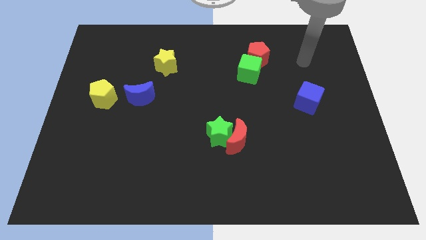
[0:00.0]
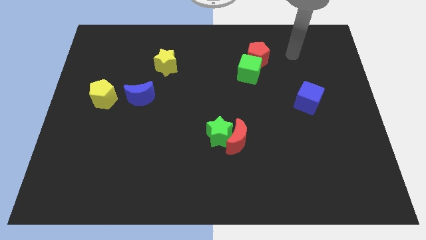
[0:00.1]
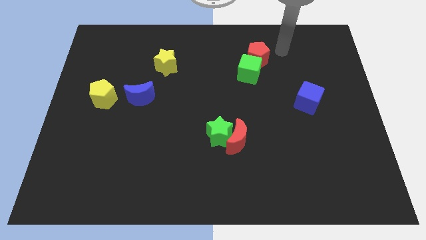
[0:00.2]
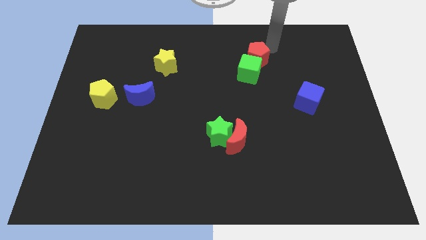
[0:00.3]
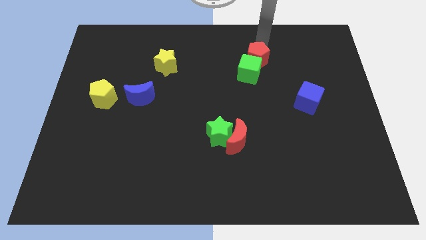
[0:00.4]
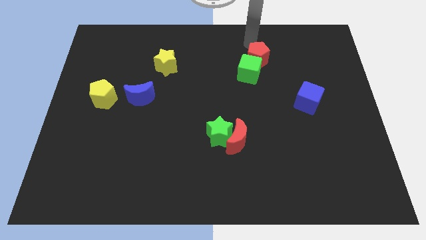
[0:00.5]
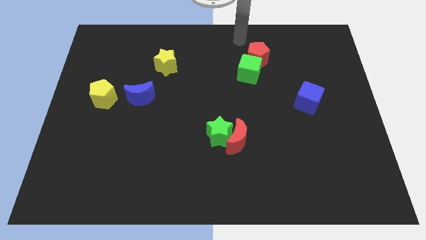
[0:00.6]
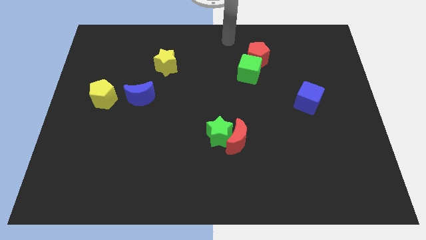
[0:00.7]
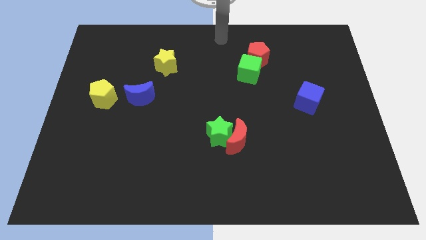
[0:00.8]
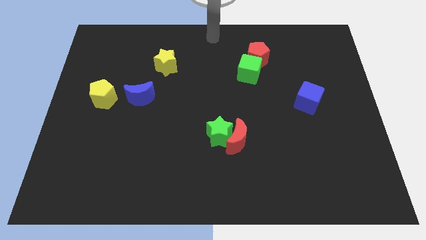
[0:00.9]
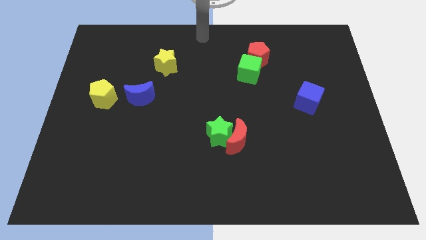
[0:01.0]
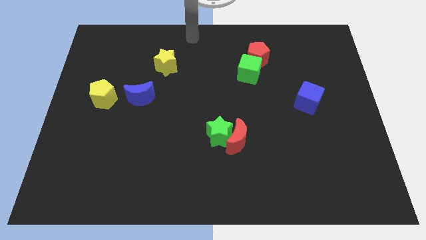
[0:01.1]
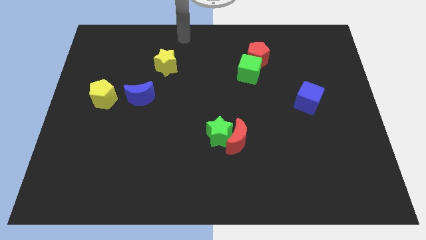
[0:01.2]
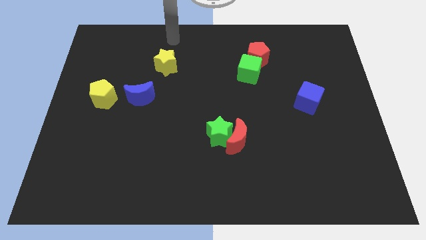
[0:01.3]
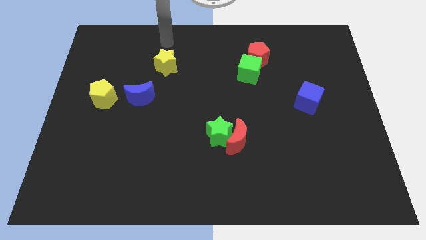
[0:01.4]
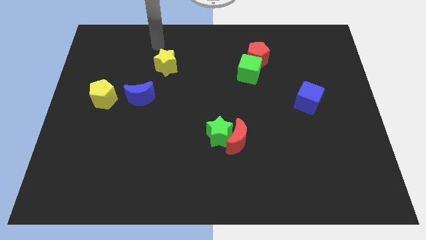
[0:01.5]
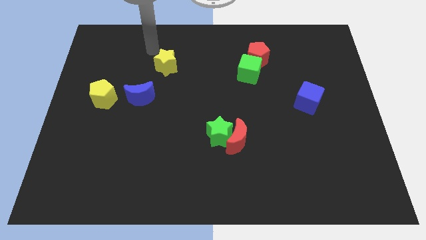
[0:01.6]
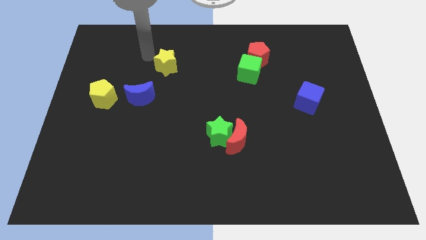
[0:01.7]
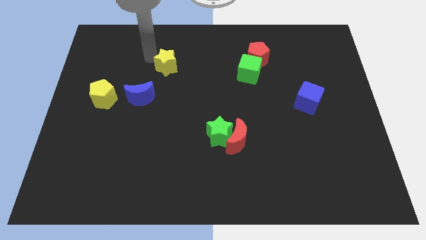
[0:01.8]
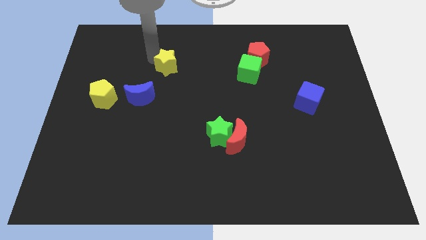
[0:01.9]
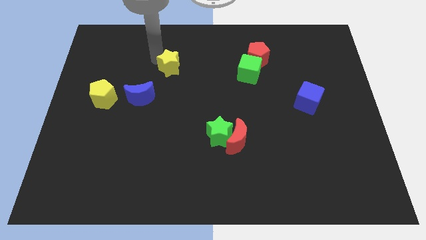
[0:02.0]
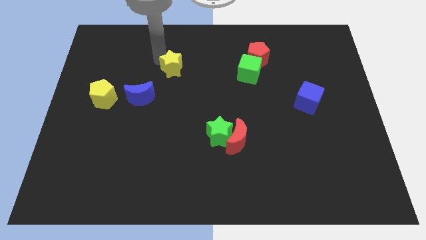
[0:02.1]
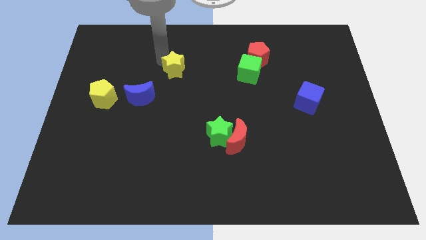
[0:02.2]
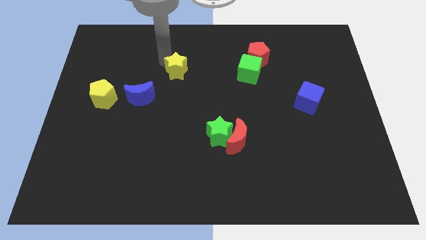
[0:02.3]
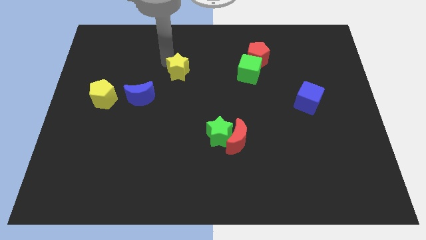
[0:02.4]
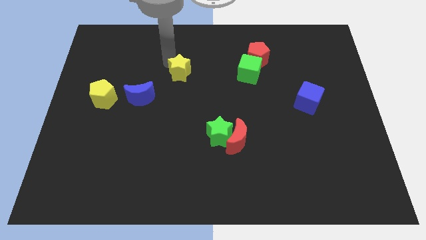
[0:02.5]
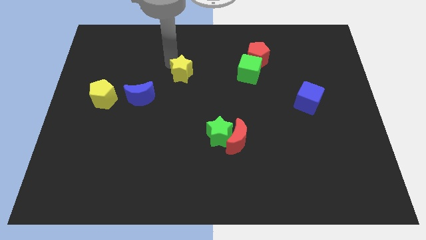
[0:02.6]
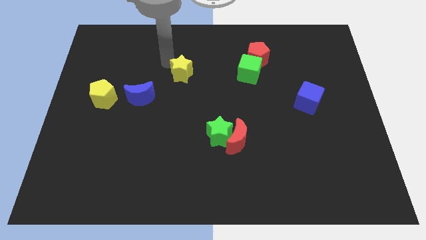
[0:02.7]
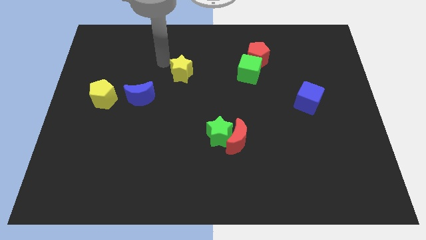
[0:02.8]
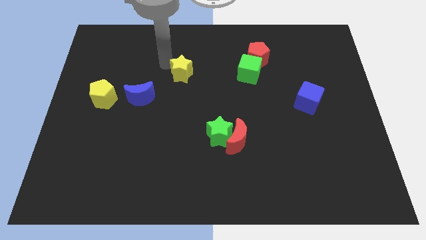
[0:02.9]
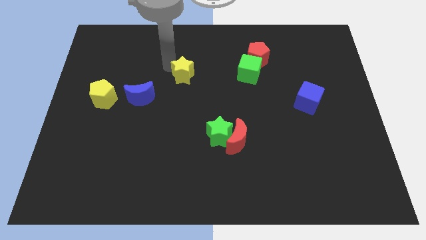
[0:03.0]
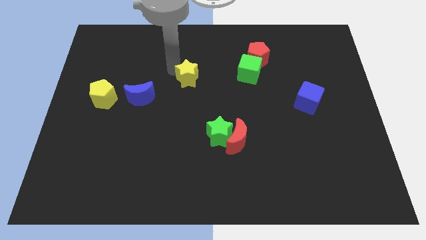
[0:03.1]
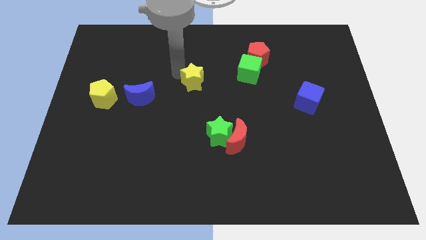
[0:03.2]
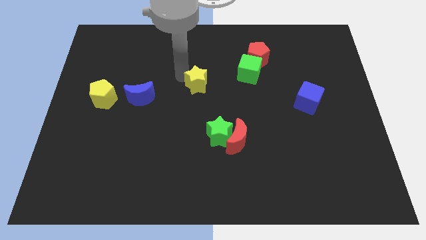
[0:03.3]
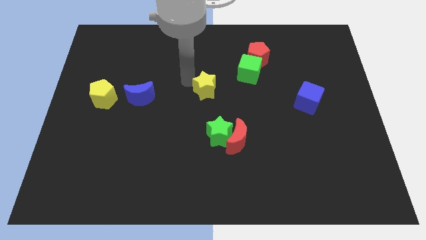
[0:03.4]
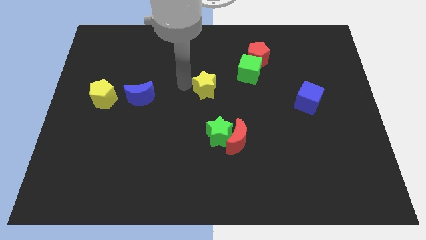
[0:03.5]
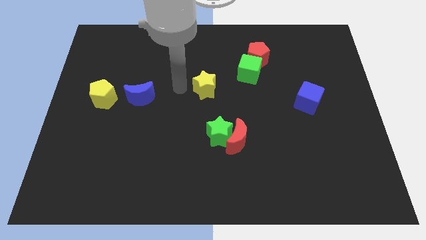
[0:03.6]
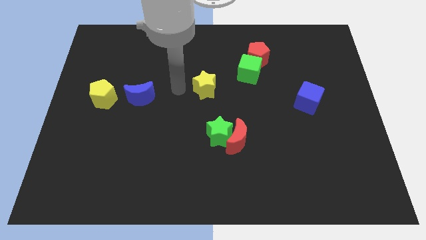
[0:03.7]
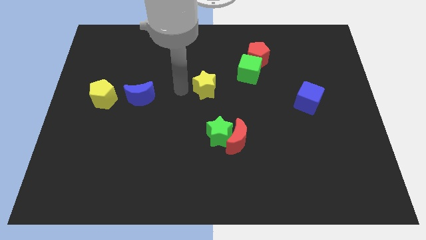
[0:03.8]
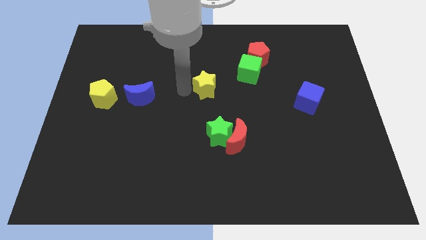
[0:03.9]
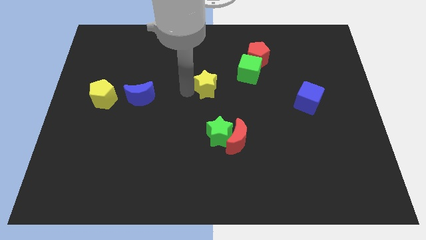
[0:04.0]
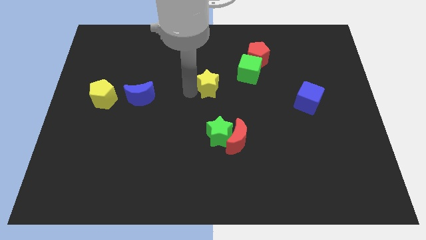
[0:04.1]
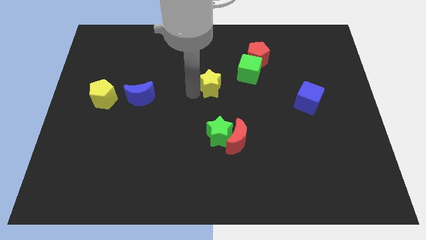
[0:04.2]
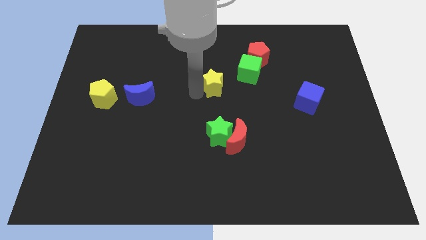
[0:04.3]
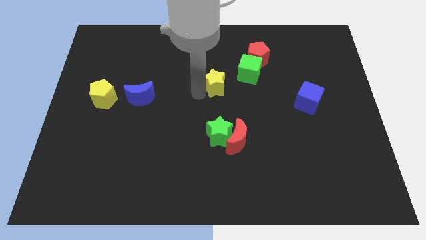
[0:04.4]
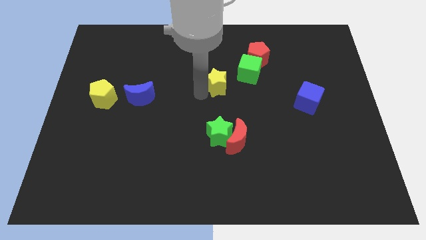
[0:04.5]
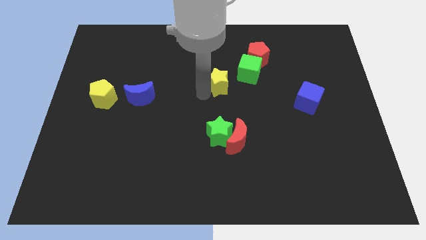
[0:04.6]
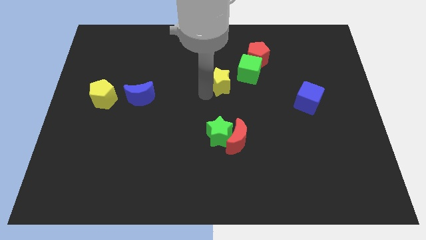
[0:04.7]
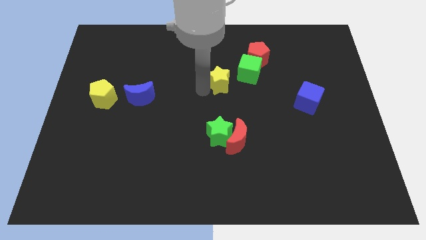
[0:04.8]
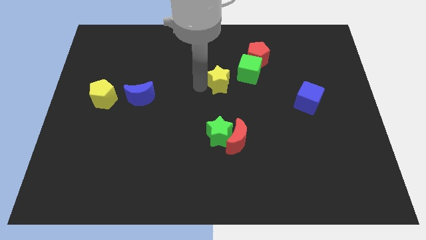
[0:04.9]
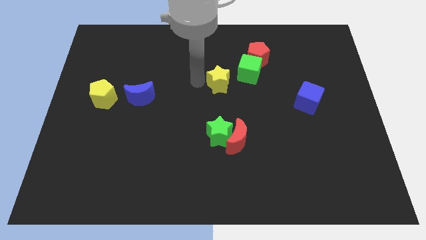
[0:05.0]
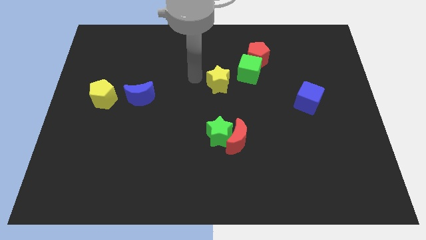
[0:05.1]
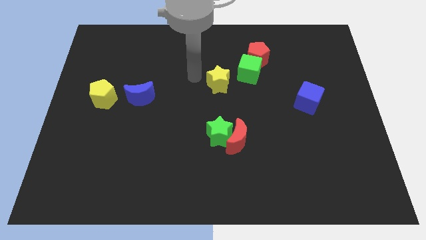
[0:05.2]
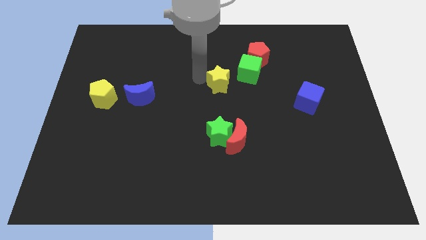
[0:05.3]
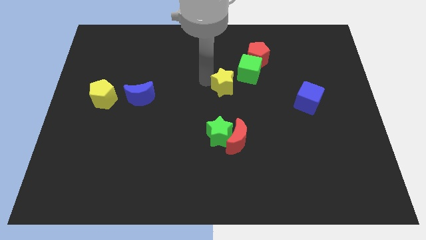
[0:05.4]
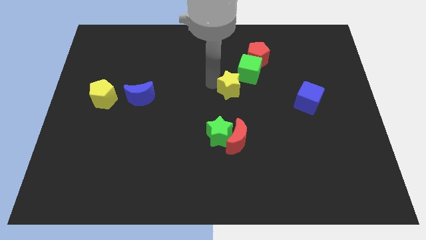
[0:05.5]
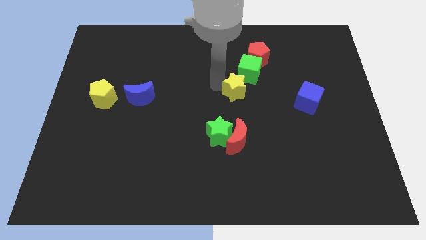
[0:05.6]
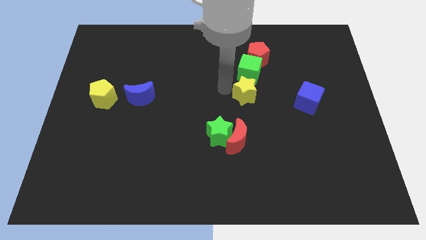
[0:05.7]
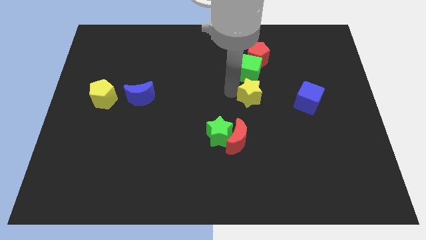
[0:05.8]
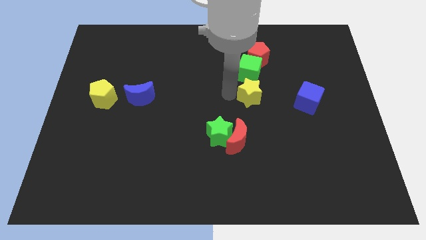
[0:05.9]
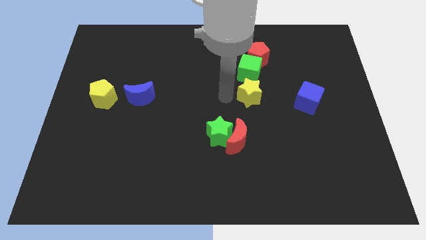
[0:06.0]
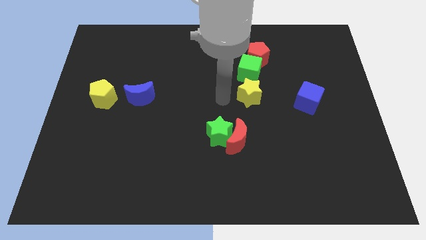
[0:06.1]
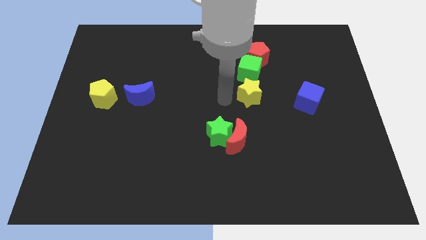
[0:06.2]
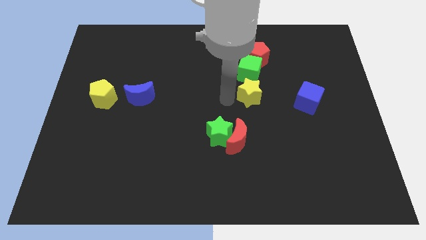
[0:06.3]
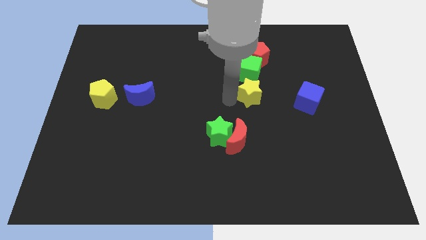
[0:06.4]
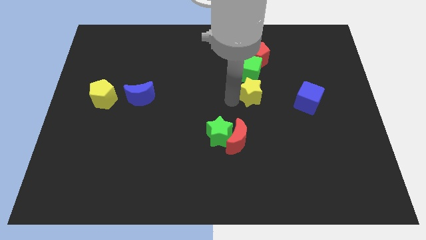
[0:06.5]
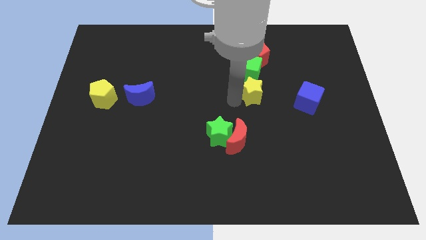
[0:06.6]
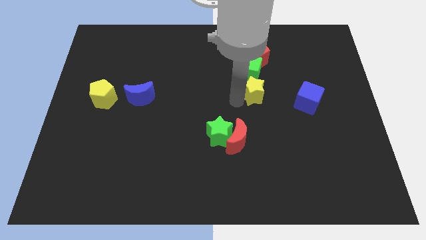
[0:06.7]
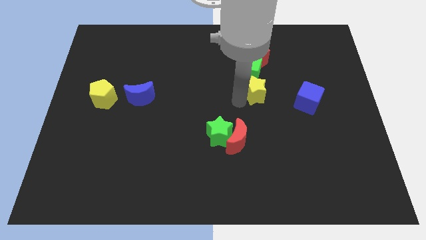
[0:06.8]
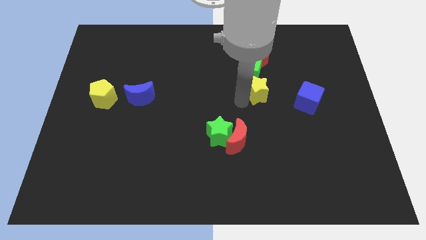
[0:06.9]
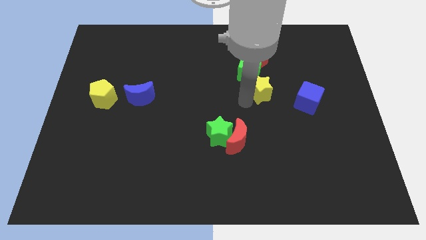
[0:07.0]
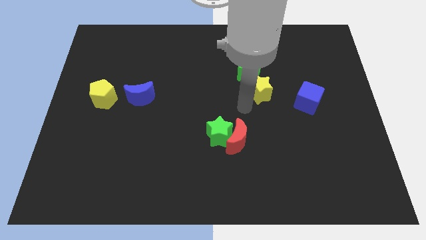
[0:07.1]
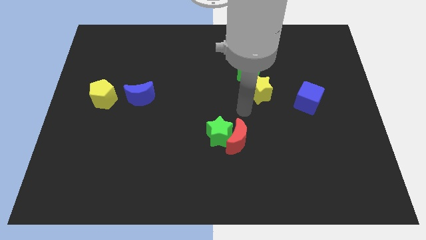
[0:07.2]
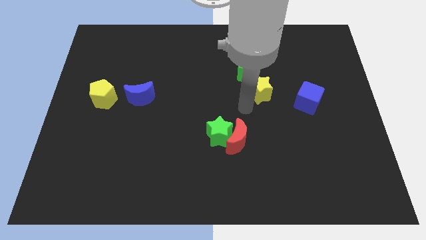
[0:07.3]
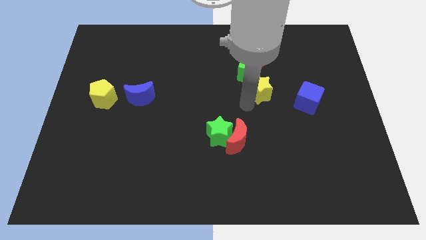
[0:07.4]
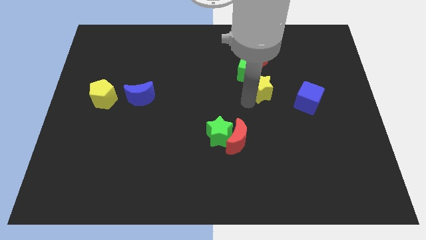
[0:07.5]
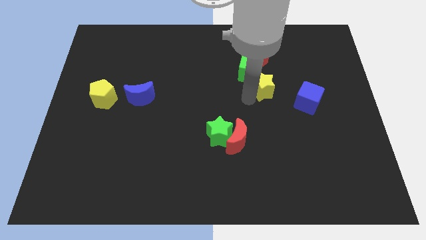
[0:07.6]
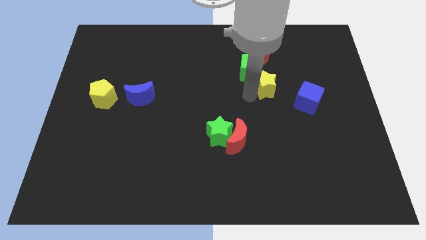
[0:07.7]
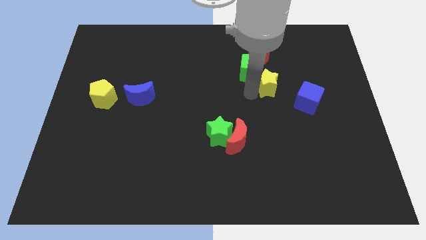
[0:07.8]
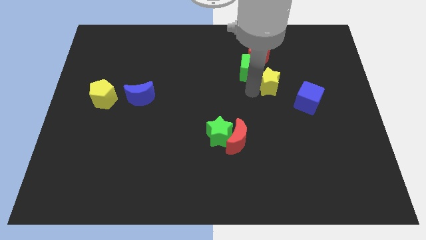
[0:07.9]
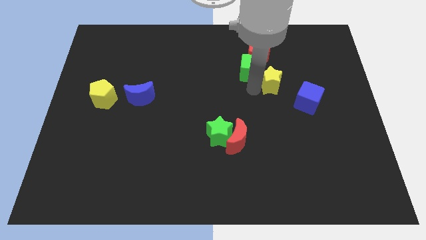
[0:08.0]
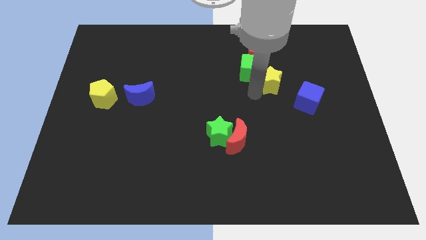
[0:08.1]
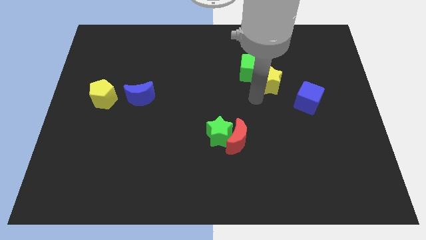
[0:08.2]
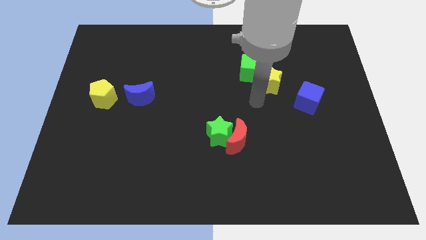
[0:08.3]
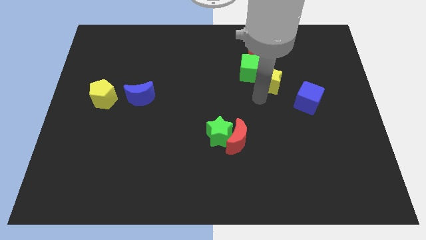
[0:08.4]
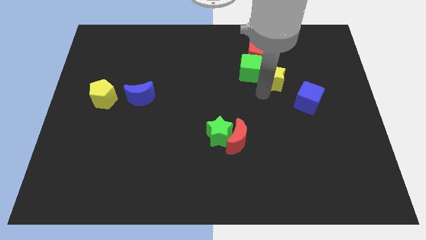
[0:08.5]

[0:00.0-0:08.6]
move the yellow star to the bottom right of the red pentagon
